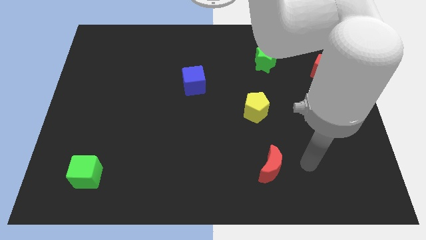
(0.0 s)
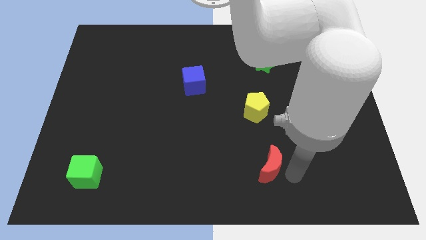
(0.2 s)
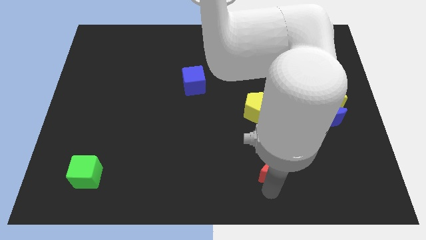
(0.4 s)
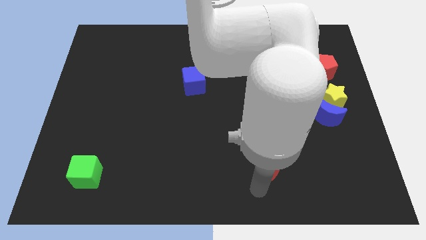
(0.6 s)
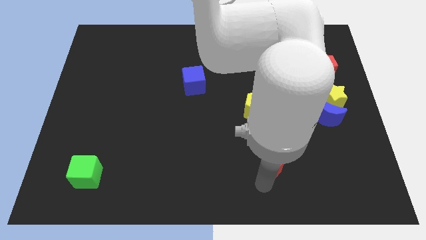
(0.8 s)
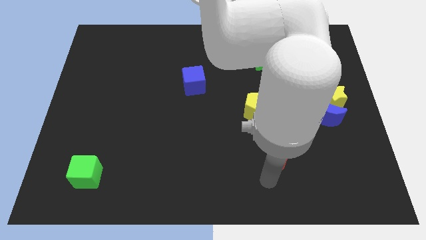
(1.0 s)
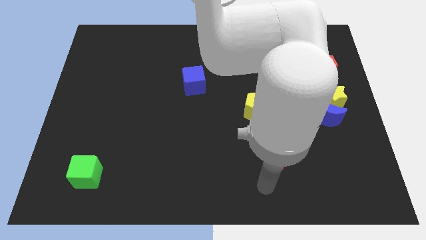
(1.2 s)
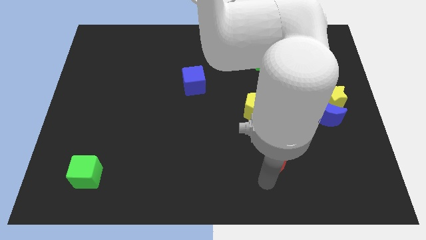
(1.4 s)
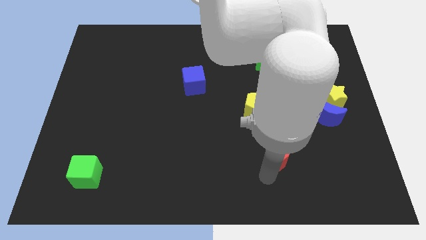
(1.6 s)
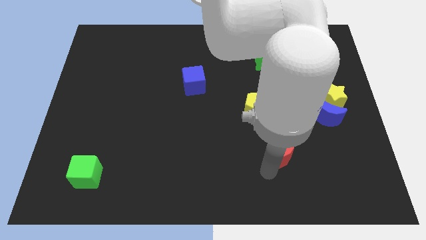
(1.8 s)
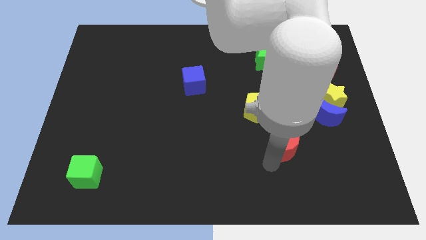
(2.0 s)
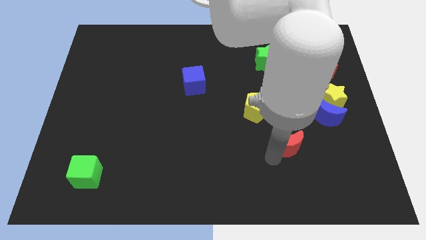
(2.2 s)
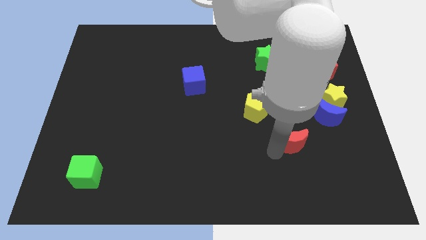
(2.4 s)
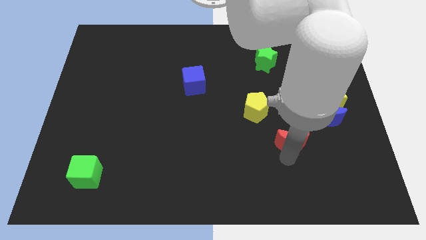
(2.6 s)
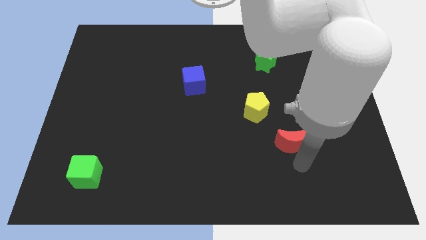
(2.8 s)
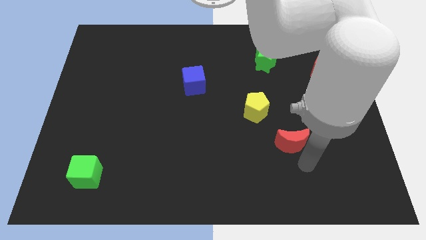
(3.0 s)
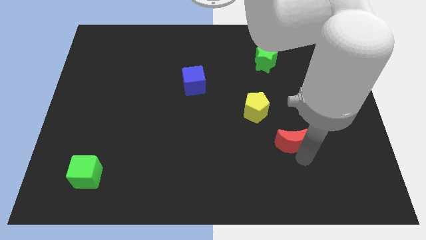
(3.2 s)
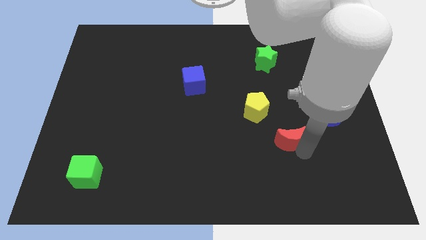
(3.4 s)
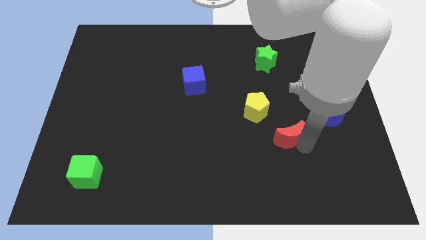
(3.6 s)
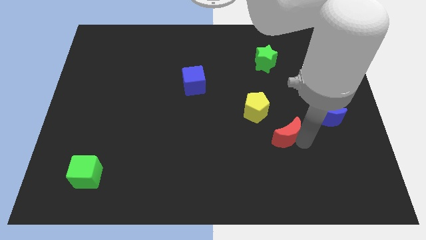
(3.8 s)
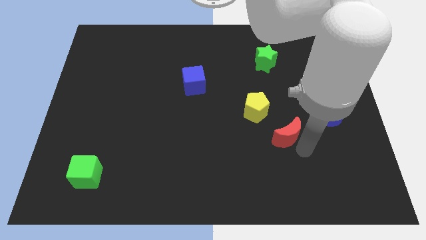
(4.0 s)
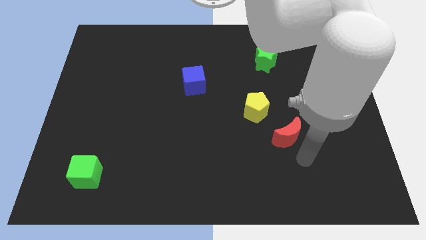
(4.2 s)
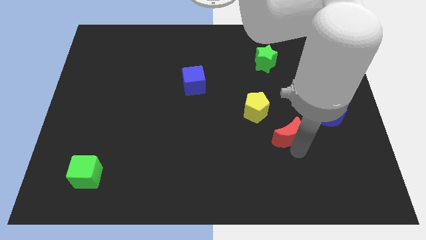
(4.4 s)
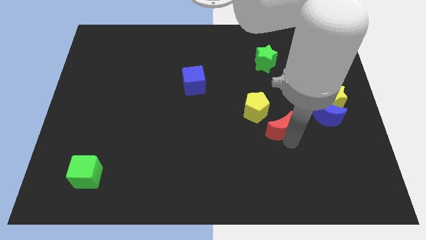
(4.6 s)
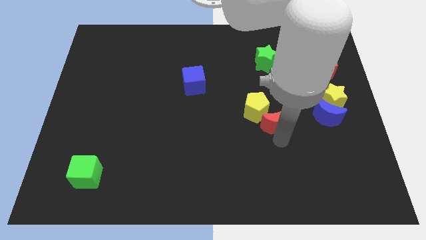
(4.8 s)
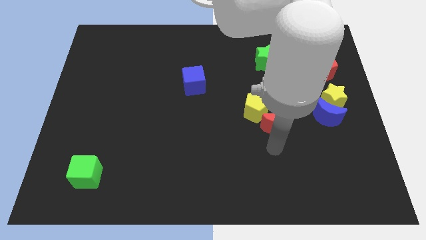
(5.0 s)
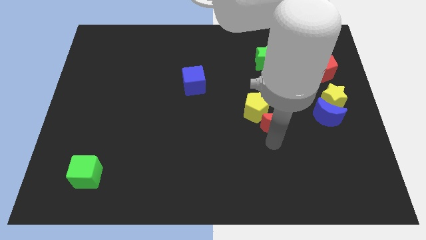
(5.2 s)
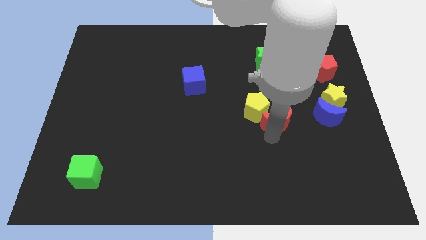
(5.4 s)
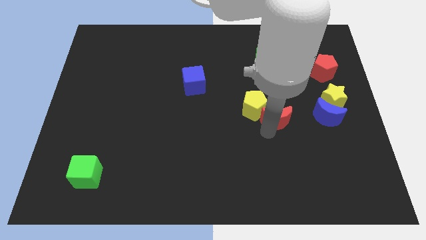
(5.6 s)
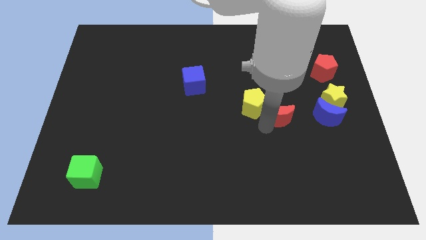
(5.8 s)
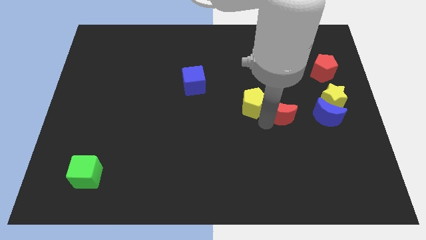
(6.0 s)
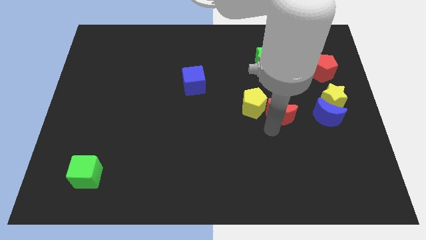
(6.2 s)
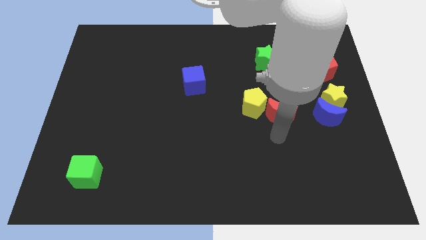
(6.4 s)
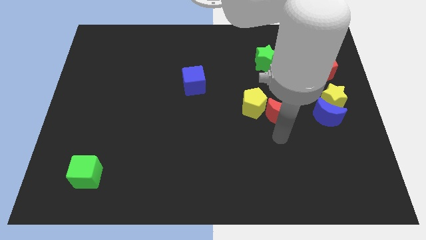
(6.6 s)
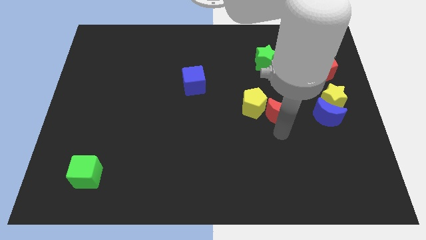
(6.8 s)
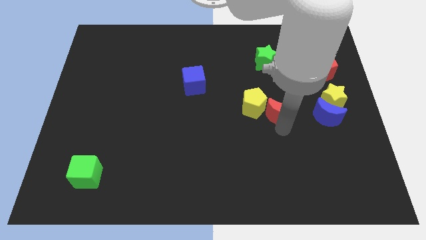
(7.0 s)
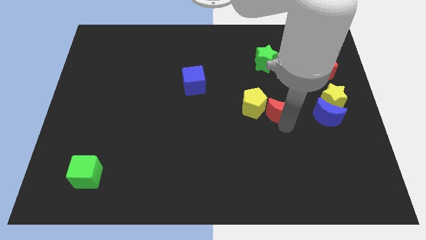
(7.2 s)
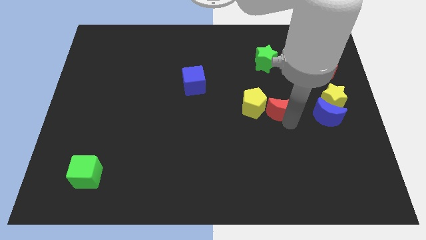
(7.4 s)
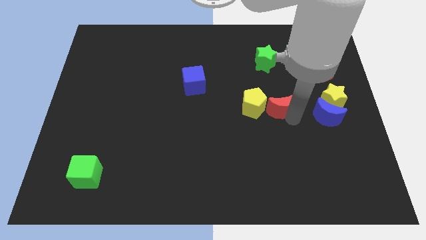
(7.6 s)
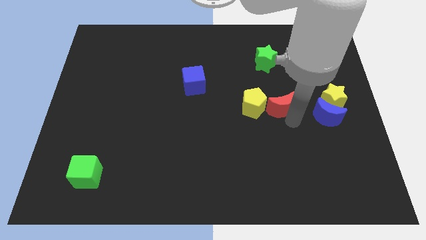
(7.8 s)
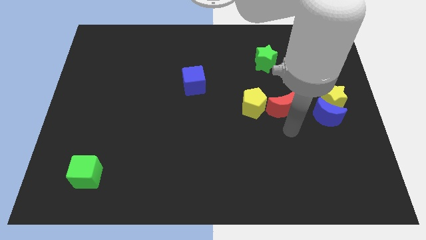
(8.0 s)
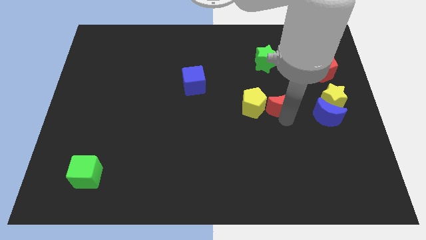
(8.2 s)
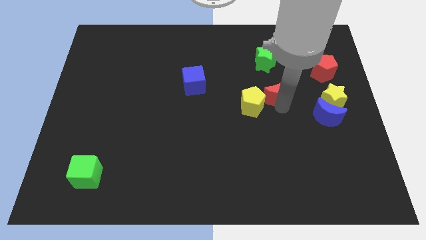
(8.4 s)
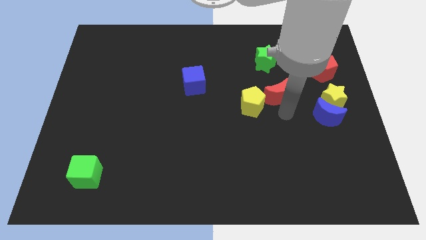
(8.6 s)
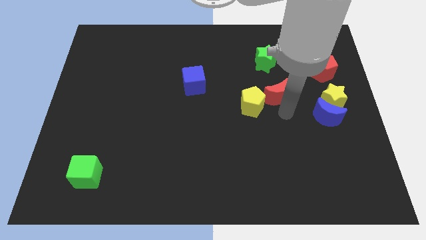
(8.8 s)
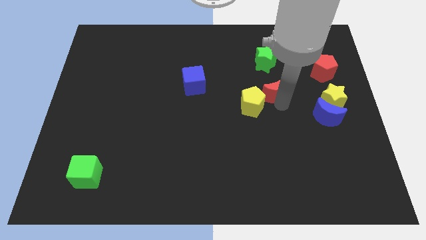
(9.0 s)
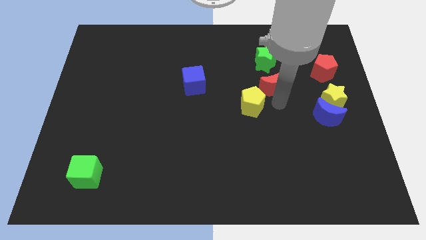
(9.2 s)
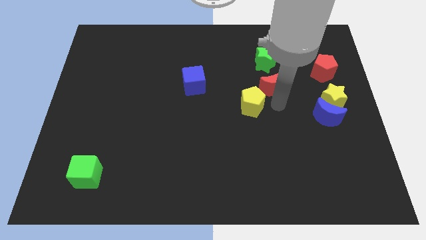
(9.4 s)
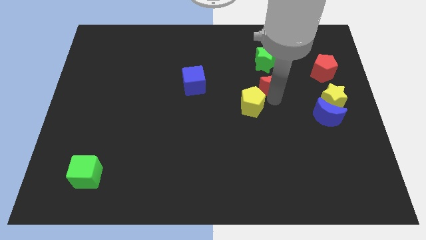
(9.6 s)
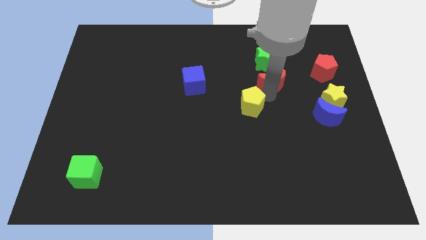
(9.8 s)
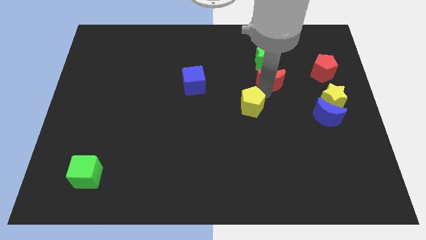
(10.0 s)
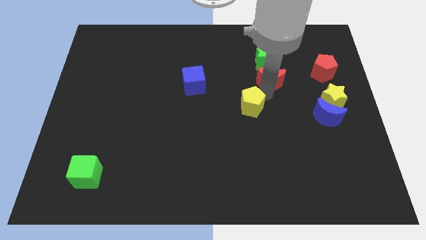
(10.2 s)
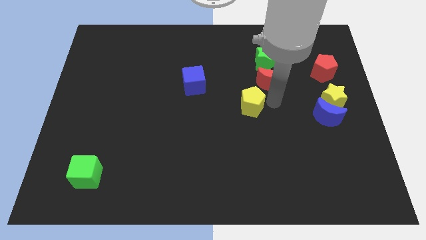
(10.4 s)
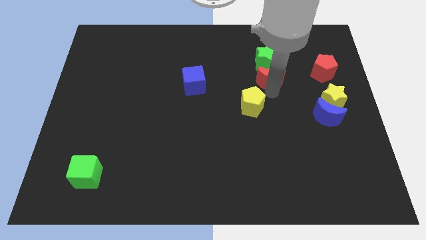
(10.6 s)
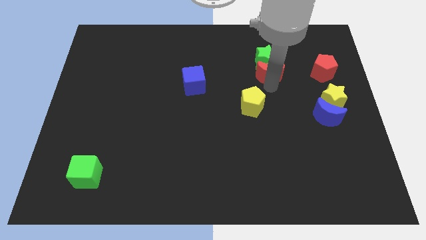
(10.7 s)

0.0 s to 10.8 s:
put the red moon close to the green star

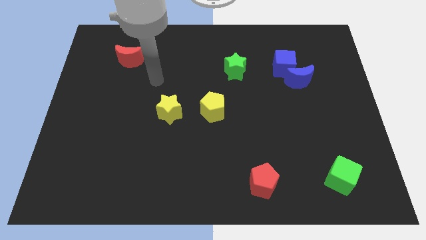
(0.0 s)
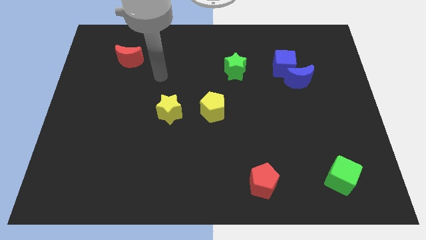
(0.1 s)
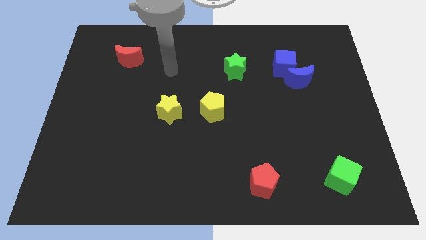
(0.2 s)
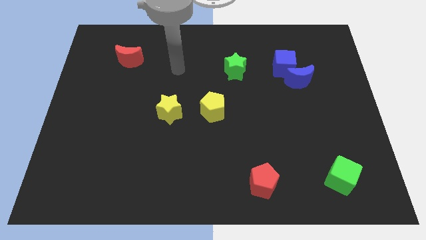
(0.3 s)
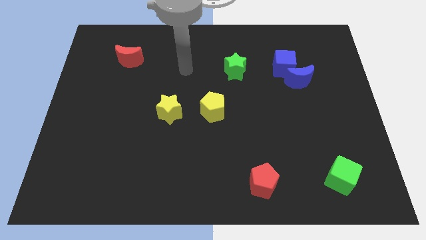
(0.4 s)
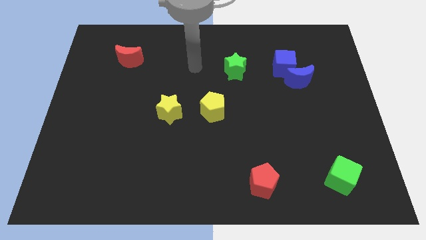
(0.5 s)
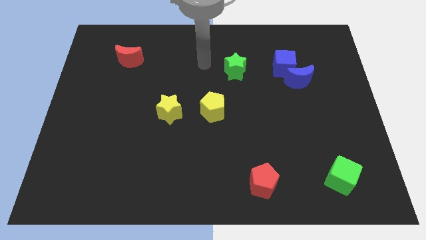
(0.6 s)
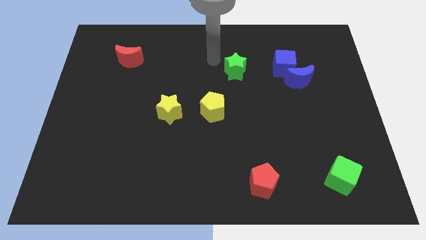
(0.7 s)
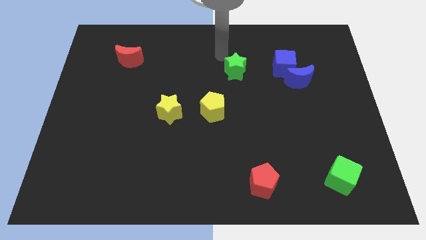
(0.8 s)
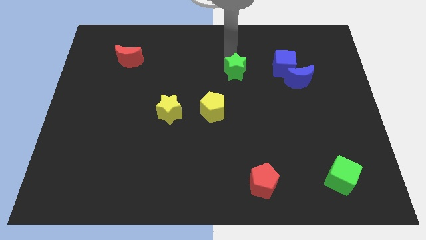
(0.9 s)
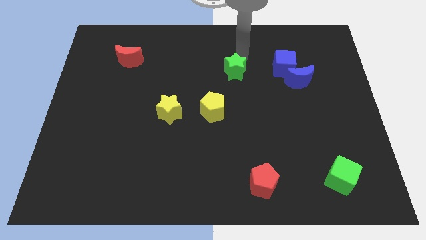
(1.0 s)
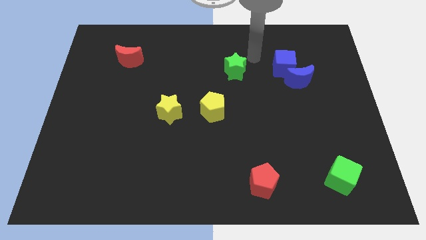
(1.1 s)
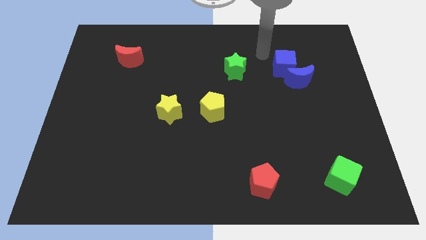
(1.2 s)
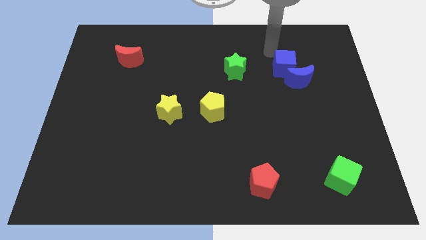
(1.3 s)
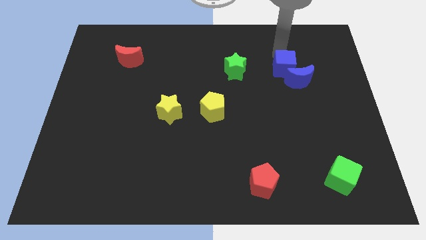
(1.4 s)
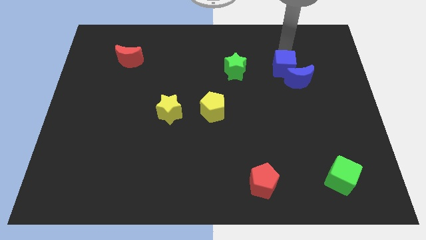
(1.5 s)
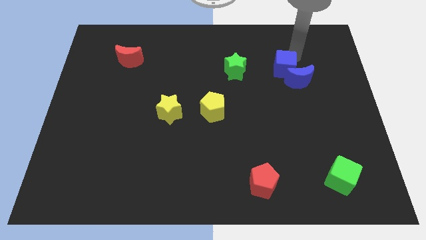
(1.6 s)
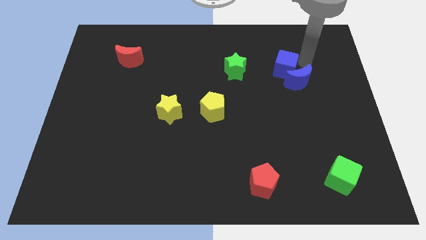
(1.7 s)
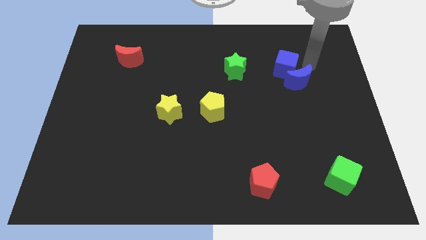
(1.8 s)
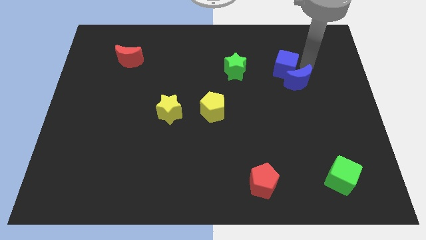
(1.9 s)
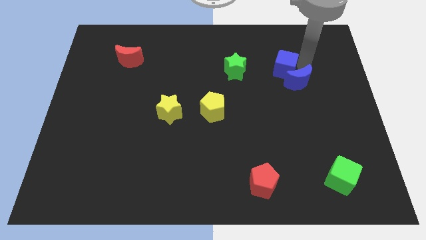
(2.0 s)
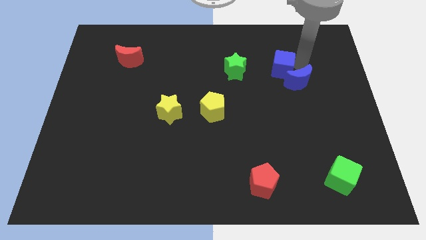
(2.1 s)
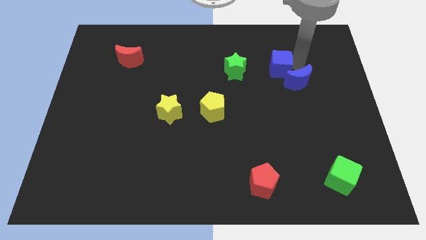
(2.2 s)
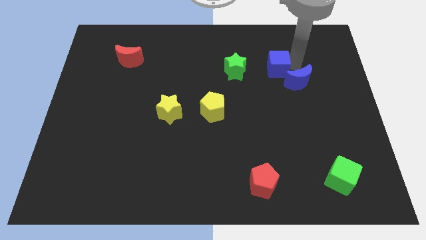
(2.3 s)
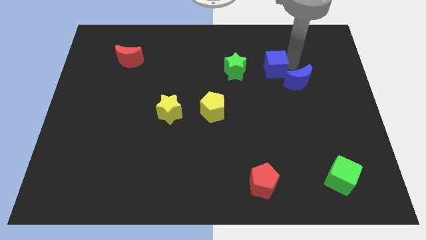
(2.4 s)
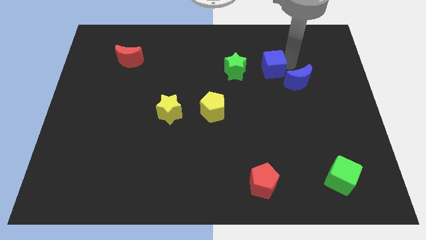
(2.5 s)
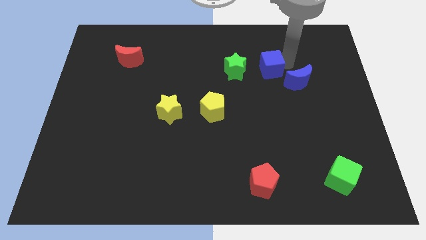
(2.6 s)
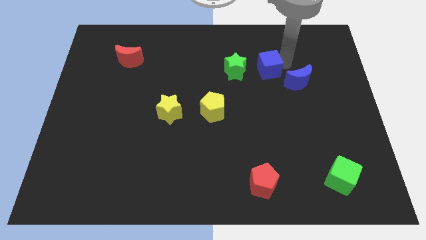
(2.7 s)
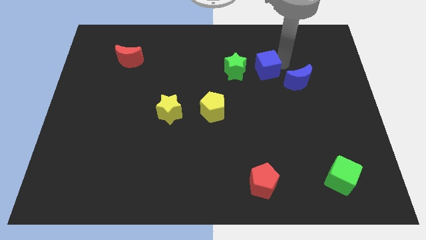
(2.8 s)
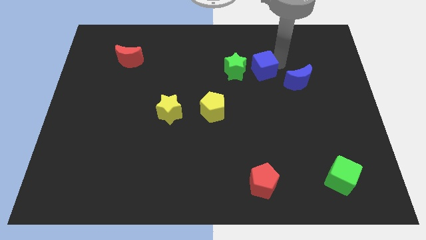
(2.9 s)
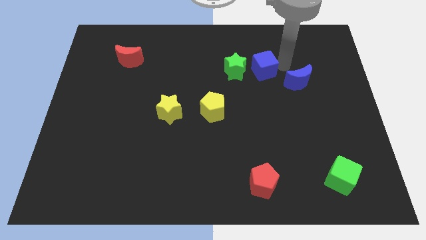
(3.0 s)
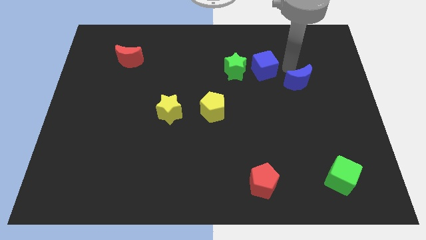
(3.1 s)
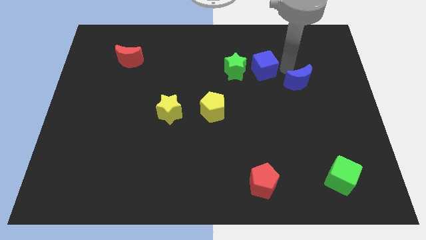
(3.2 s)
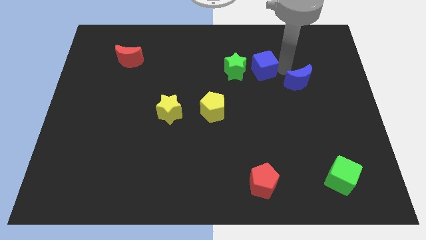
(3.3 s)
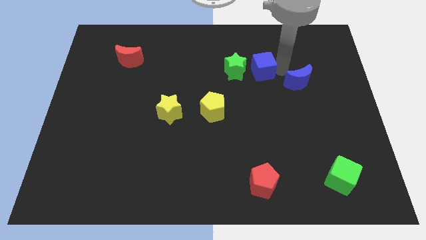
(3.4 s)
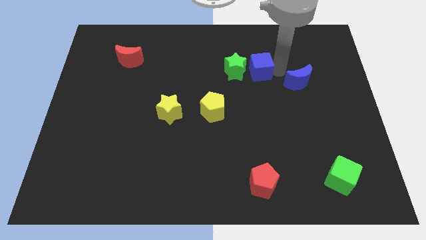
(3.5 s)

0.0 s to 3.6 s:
put the blue cube to the green star
